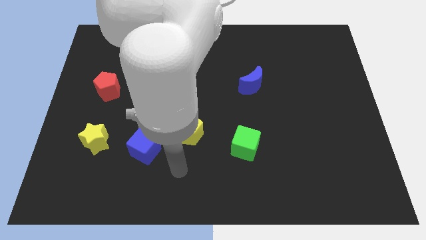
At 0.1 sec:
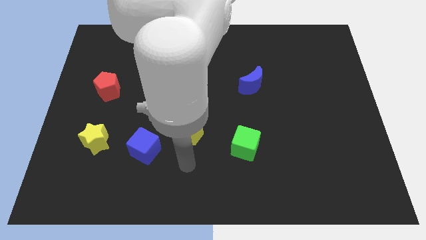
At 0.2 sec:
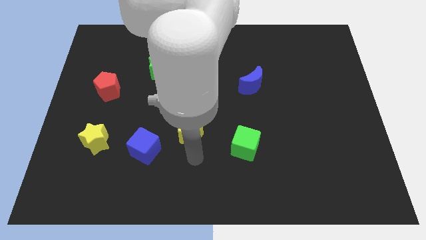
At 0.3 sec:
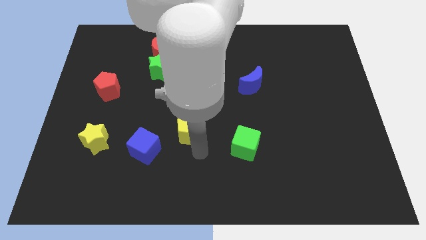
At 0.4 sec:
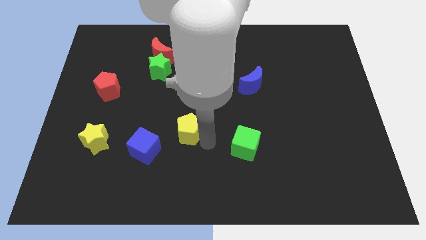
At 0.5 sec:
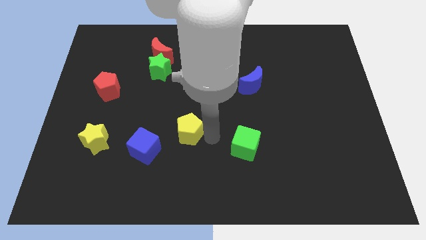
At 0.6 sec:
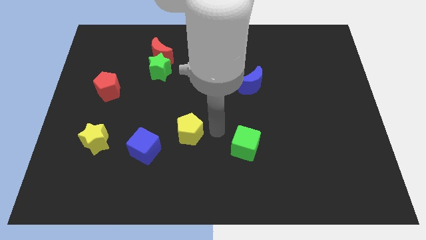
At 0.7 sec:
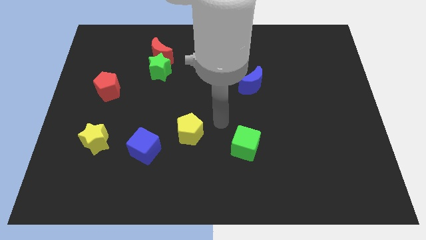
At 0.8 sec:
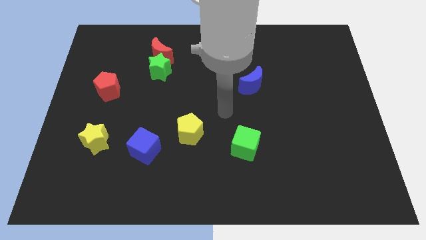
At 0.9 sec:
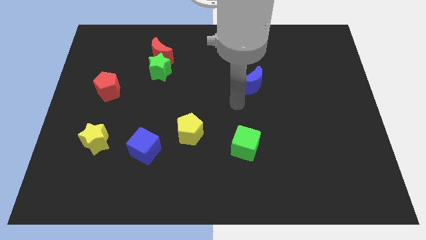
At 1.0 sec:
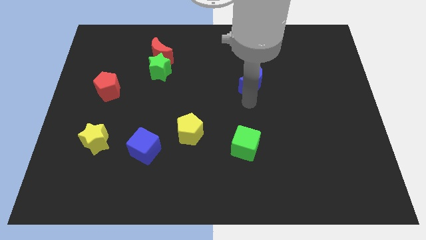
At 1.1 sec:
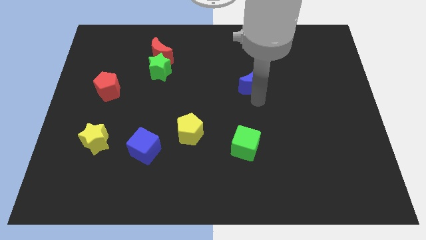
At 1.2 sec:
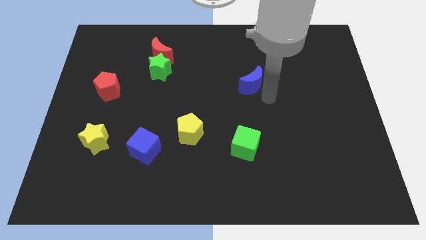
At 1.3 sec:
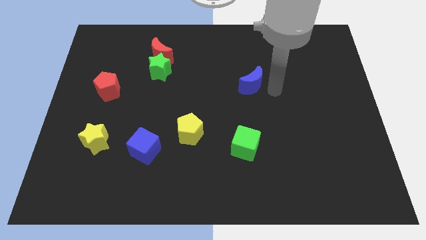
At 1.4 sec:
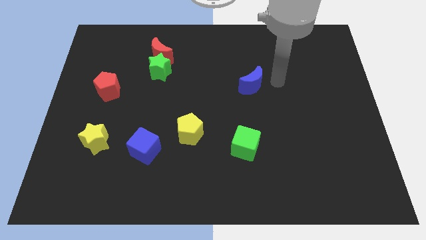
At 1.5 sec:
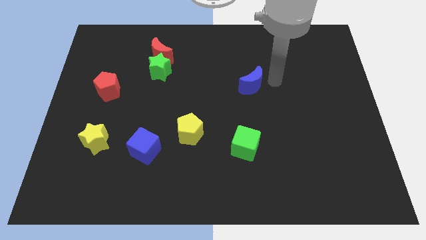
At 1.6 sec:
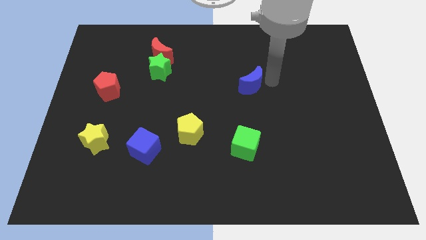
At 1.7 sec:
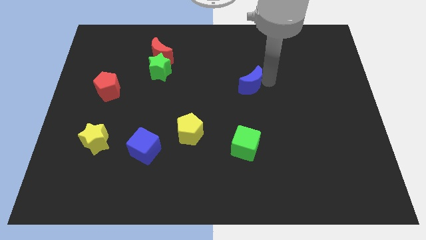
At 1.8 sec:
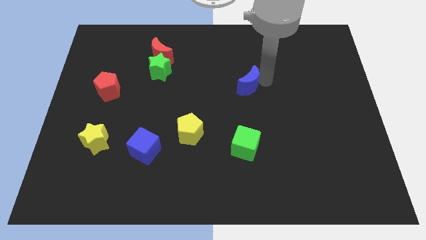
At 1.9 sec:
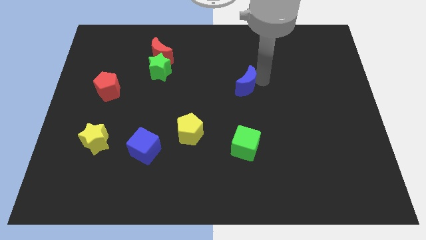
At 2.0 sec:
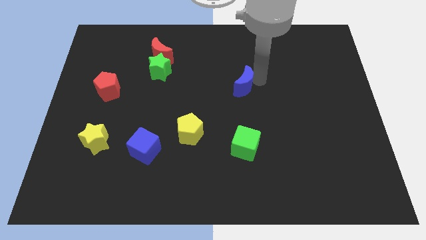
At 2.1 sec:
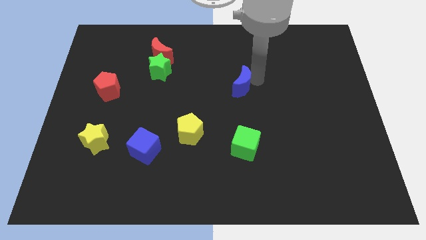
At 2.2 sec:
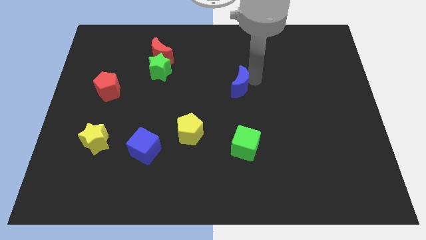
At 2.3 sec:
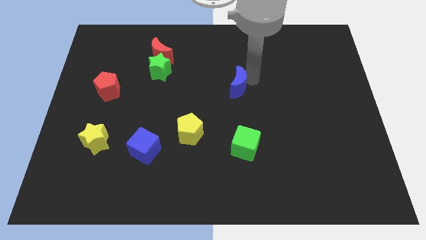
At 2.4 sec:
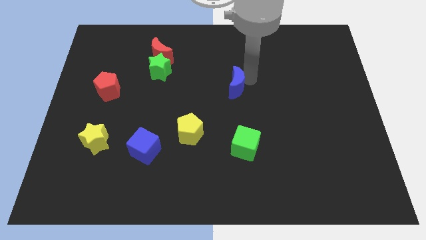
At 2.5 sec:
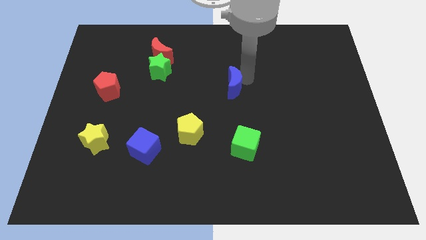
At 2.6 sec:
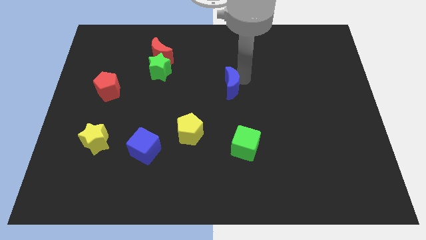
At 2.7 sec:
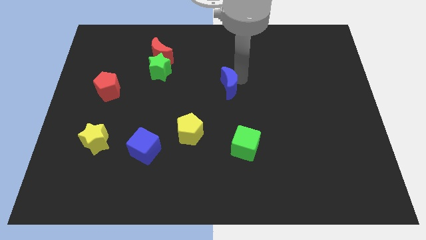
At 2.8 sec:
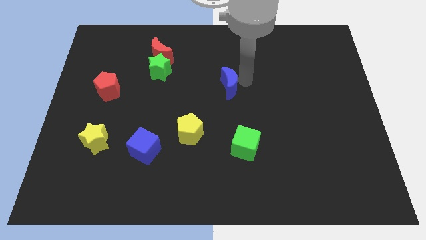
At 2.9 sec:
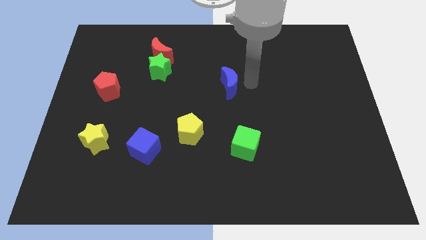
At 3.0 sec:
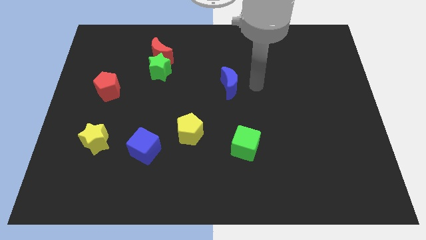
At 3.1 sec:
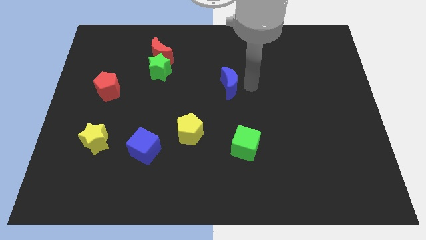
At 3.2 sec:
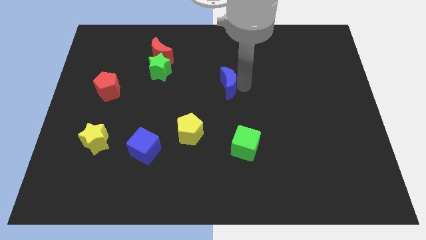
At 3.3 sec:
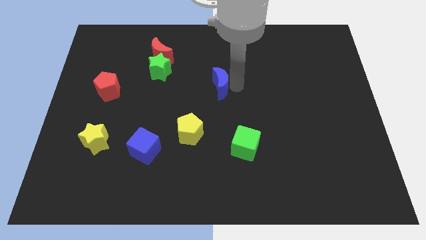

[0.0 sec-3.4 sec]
slightly slide the blue moon to the left

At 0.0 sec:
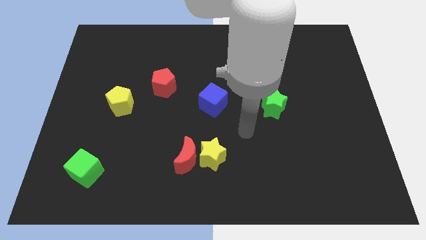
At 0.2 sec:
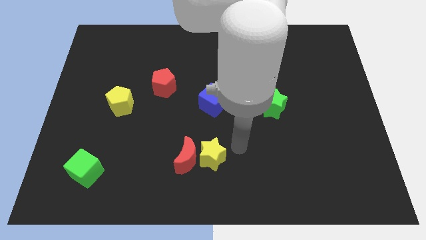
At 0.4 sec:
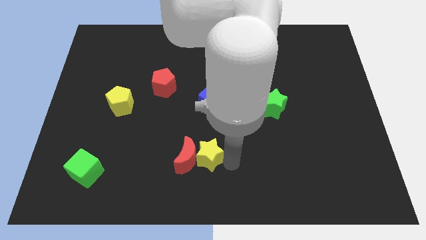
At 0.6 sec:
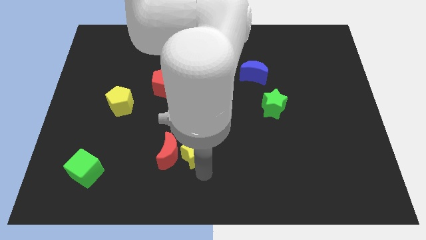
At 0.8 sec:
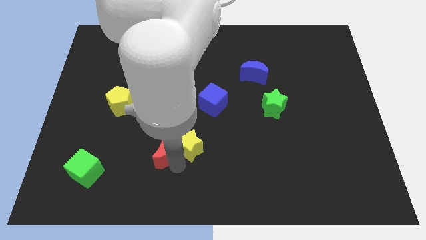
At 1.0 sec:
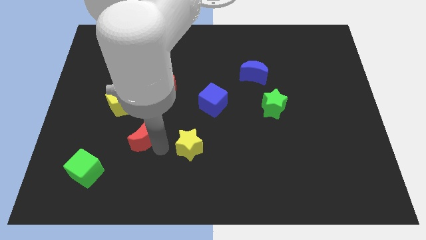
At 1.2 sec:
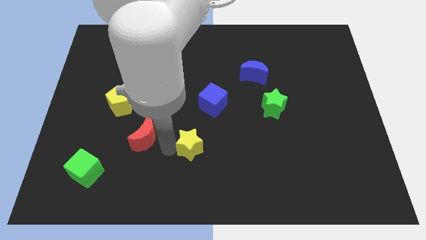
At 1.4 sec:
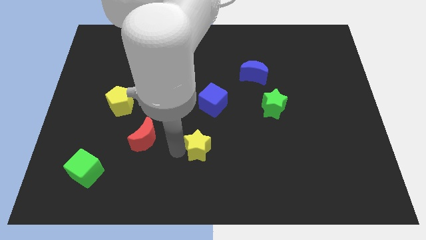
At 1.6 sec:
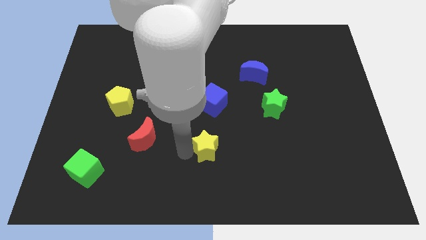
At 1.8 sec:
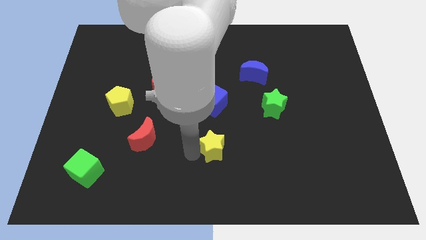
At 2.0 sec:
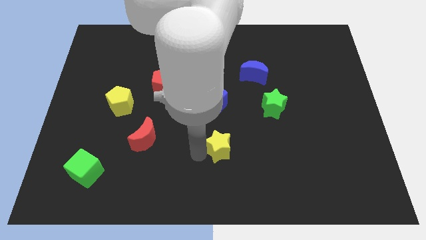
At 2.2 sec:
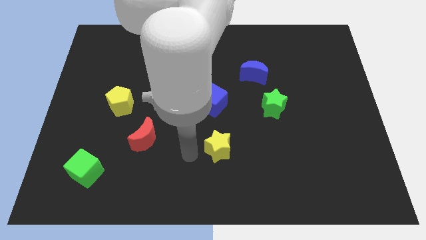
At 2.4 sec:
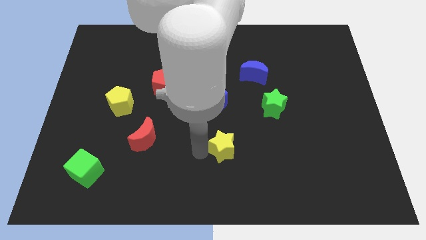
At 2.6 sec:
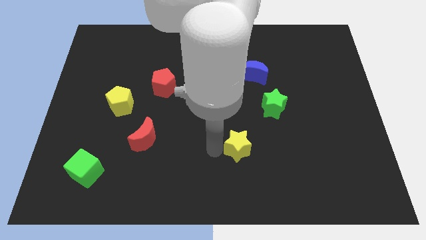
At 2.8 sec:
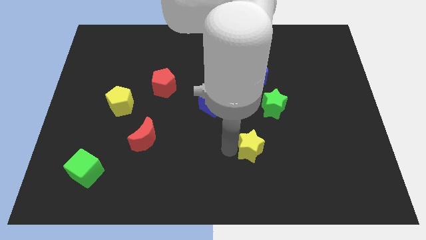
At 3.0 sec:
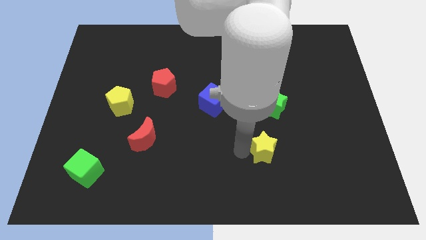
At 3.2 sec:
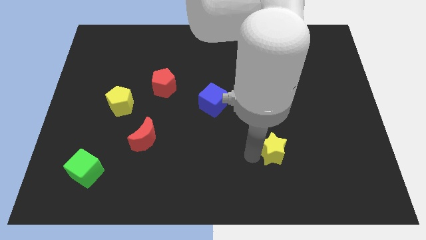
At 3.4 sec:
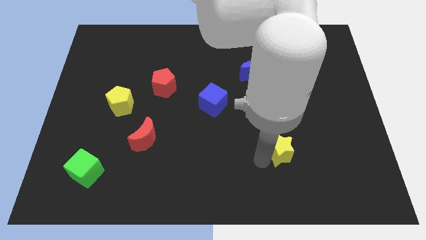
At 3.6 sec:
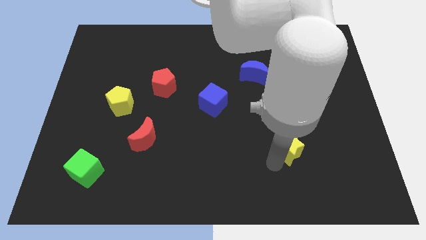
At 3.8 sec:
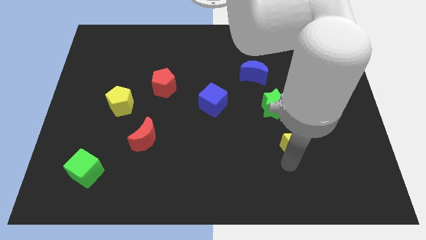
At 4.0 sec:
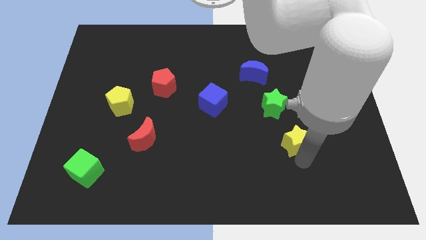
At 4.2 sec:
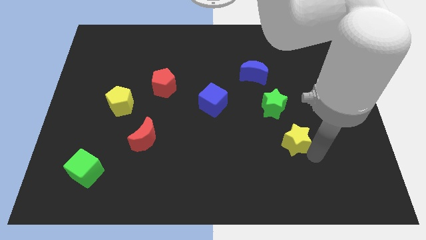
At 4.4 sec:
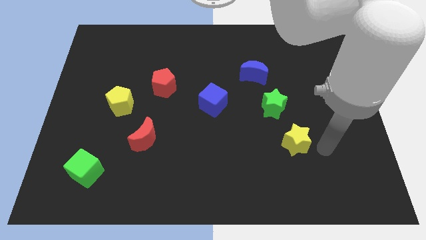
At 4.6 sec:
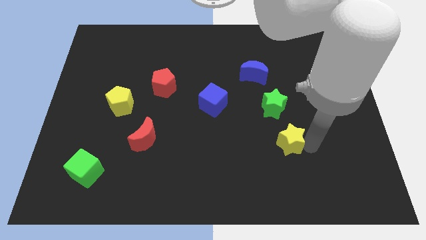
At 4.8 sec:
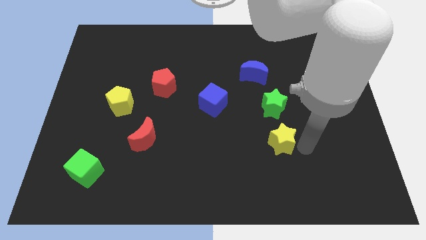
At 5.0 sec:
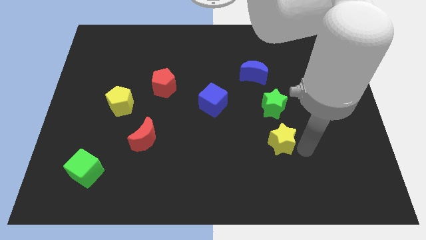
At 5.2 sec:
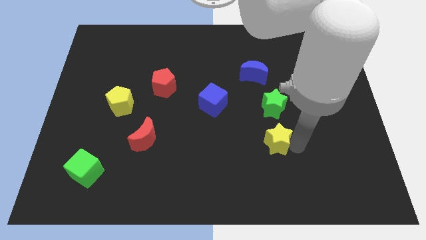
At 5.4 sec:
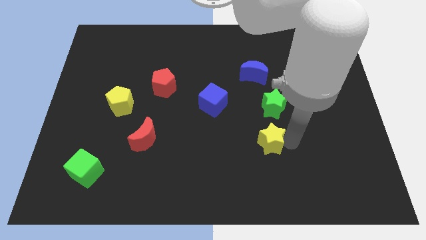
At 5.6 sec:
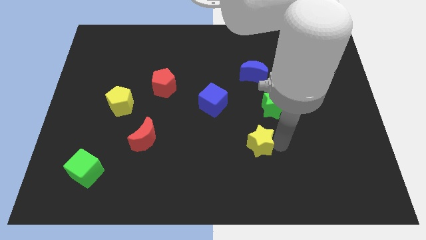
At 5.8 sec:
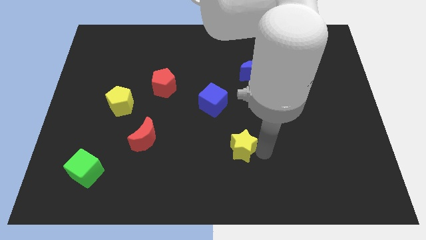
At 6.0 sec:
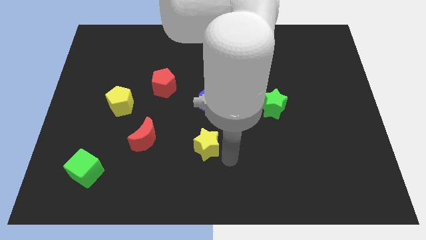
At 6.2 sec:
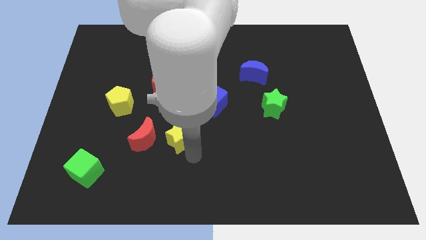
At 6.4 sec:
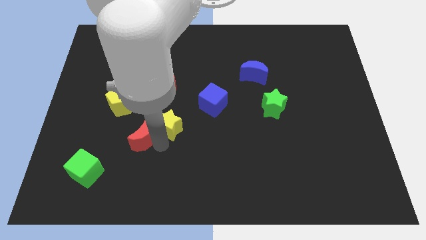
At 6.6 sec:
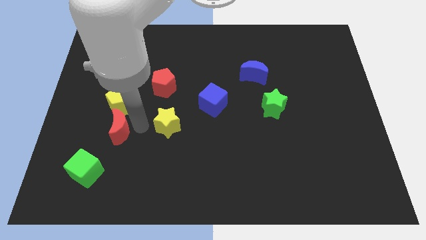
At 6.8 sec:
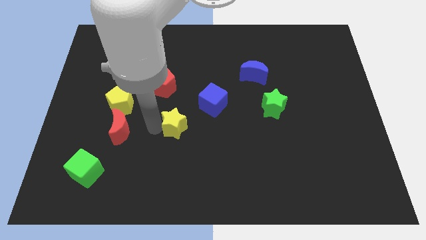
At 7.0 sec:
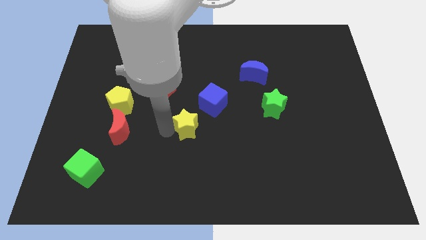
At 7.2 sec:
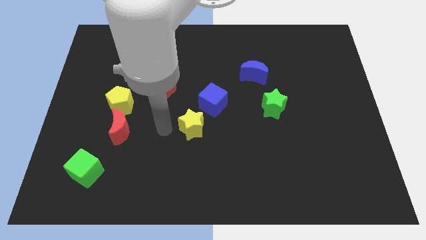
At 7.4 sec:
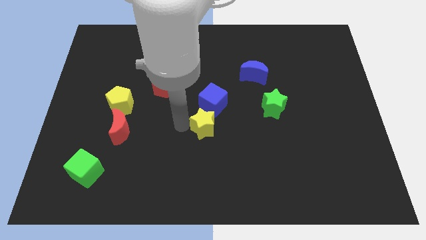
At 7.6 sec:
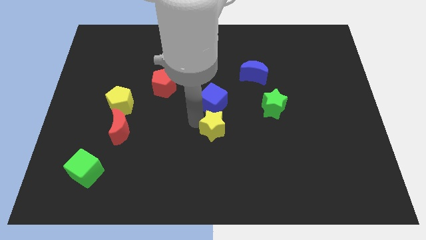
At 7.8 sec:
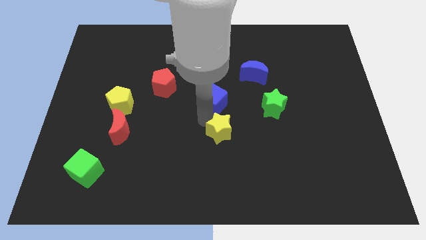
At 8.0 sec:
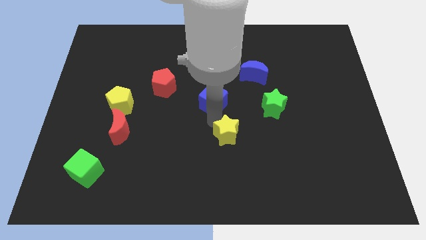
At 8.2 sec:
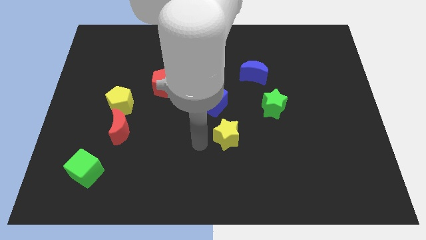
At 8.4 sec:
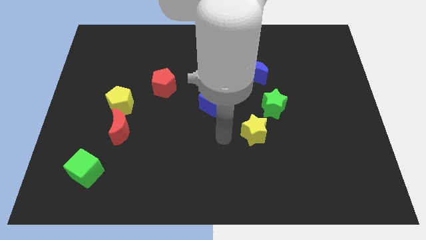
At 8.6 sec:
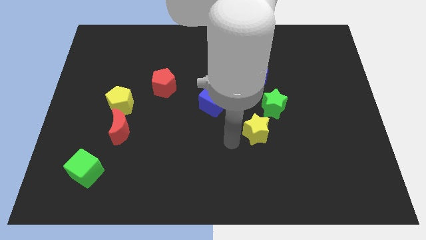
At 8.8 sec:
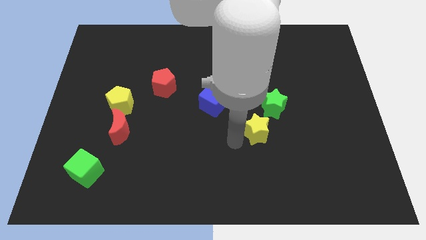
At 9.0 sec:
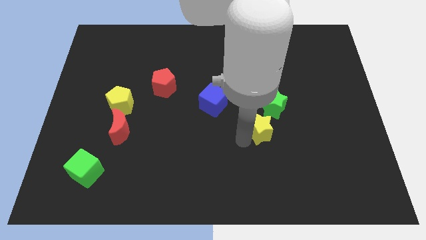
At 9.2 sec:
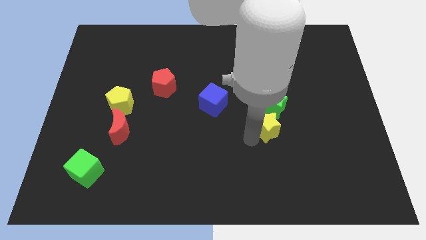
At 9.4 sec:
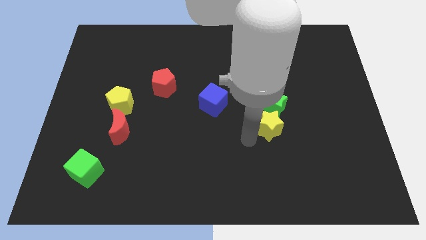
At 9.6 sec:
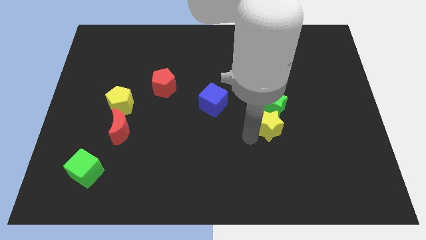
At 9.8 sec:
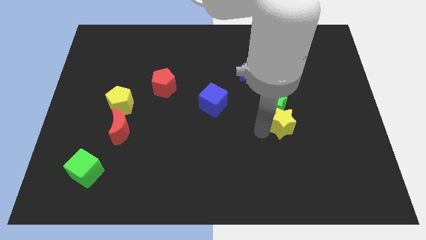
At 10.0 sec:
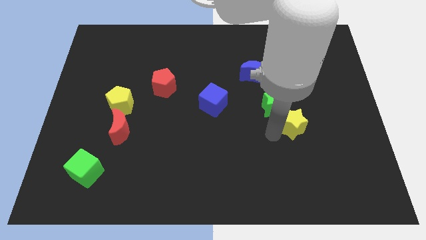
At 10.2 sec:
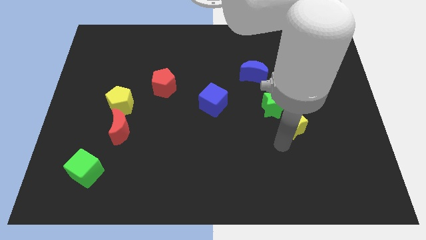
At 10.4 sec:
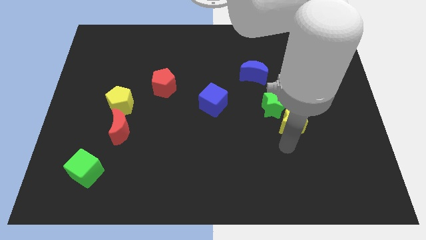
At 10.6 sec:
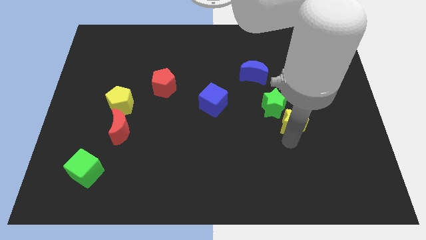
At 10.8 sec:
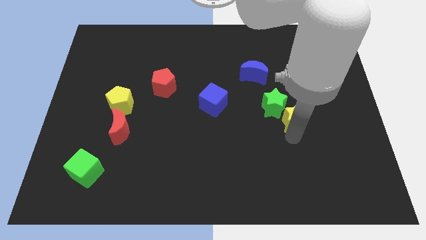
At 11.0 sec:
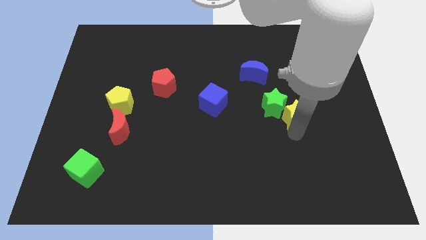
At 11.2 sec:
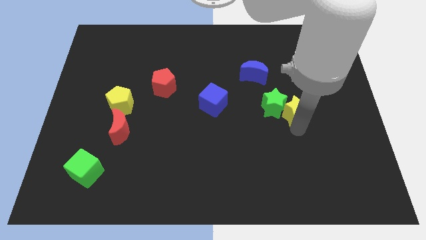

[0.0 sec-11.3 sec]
push the yellow star upwards and right
